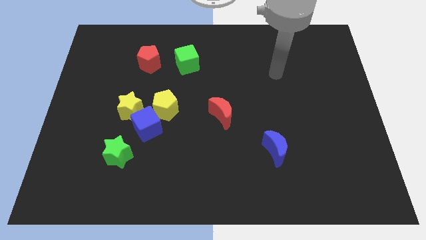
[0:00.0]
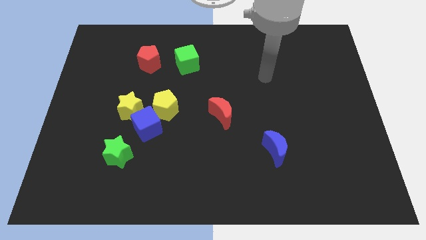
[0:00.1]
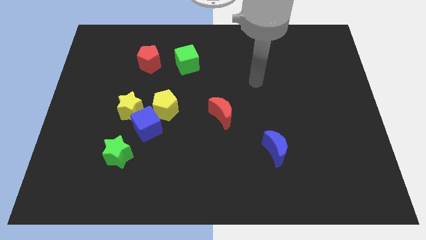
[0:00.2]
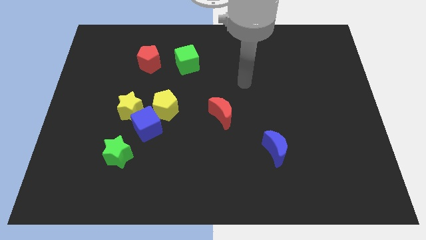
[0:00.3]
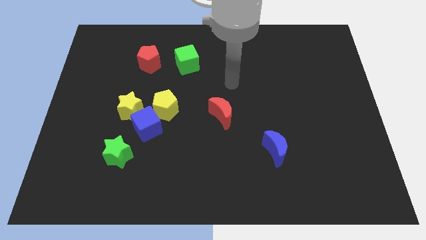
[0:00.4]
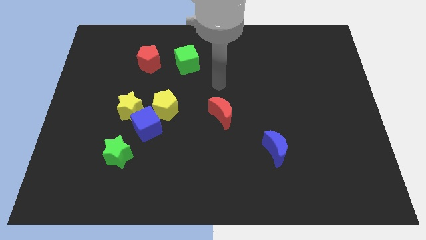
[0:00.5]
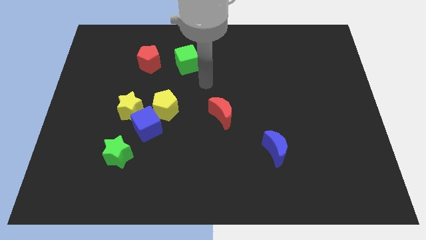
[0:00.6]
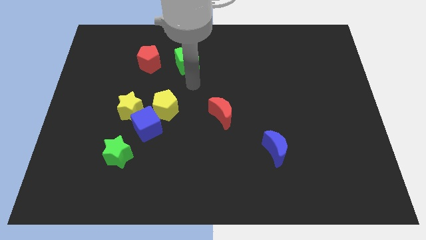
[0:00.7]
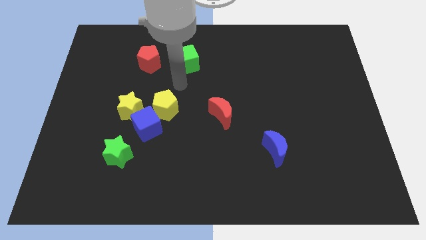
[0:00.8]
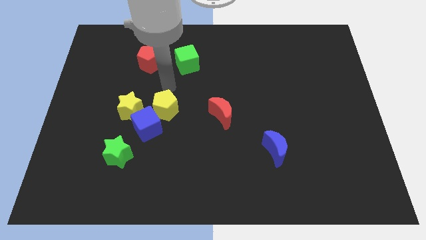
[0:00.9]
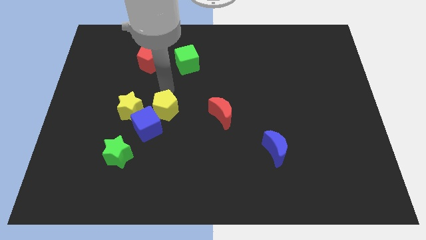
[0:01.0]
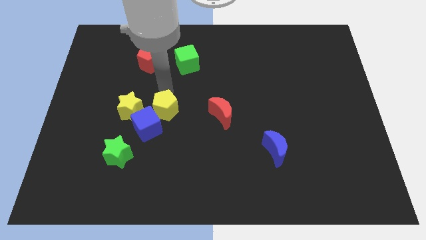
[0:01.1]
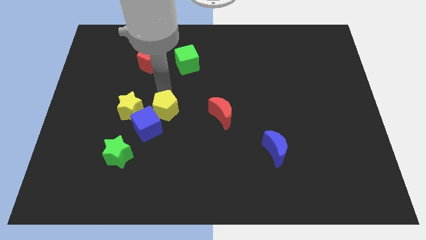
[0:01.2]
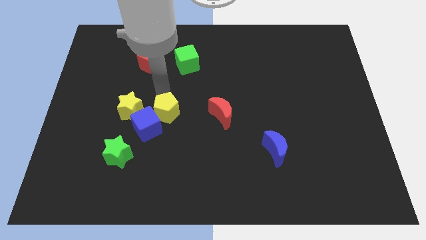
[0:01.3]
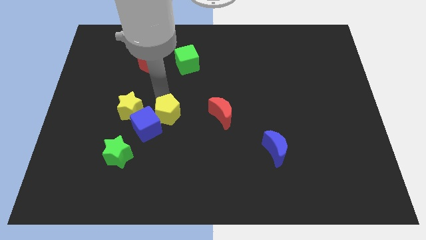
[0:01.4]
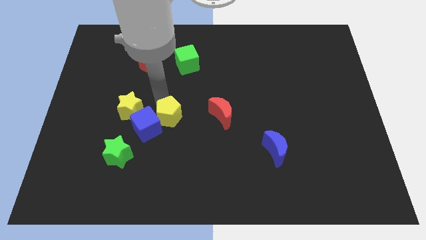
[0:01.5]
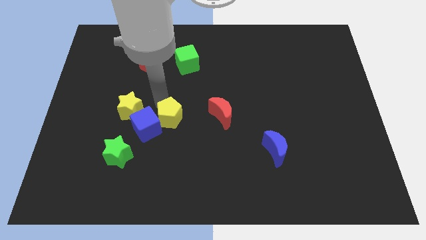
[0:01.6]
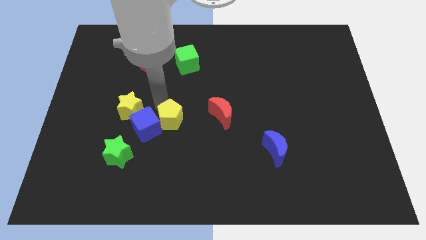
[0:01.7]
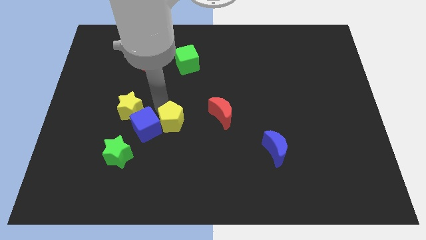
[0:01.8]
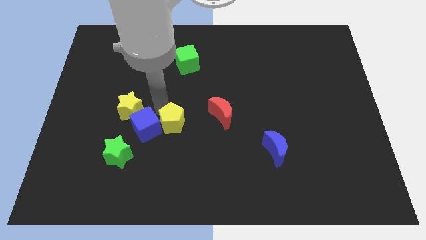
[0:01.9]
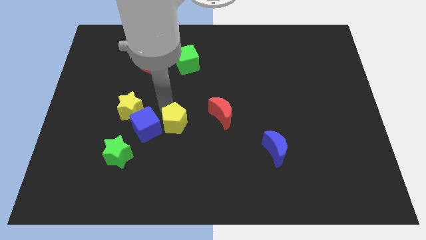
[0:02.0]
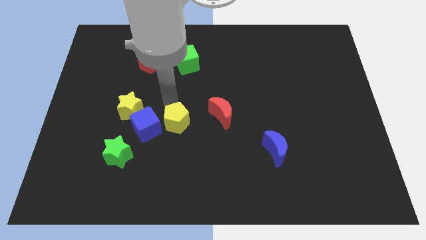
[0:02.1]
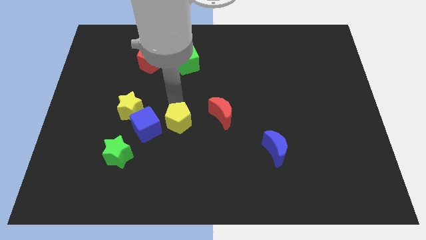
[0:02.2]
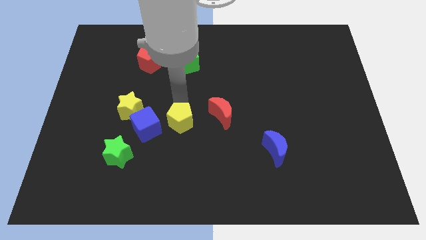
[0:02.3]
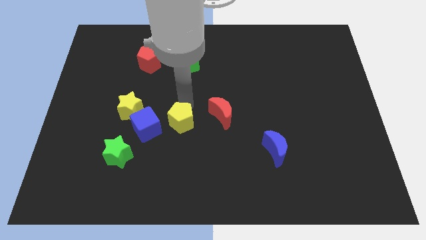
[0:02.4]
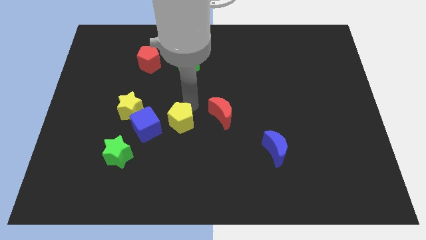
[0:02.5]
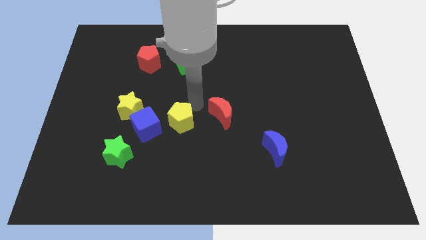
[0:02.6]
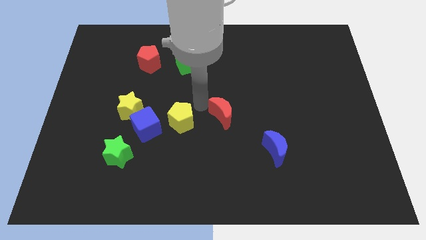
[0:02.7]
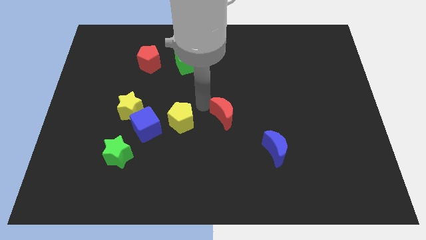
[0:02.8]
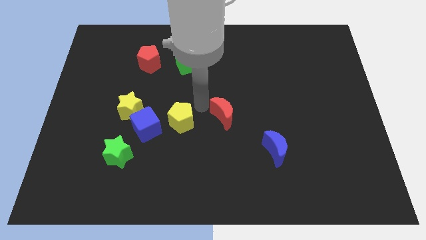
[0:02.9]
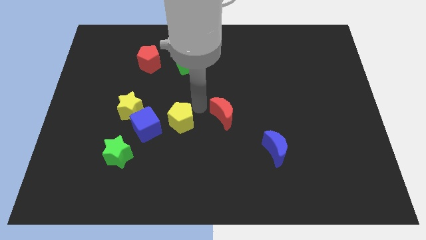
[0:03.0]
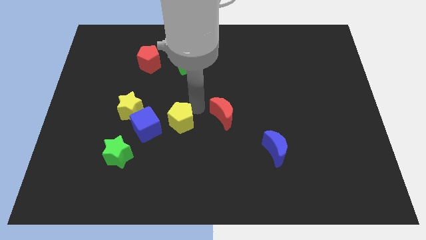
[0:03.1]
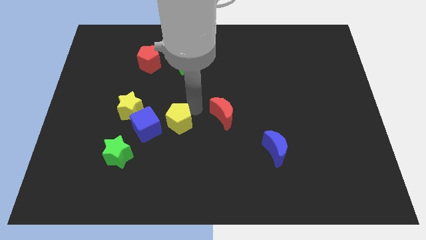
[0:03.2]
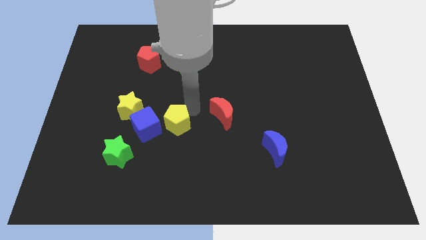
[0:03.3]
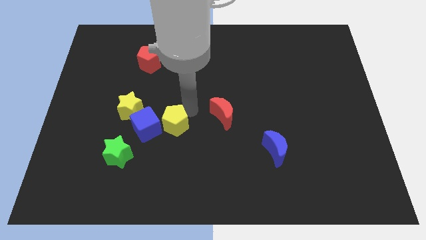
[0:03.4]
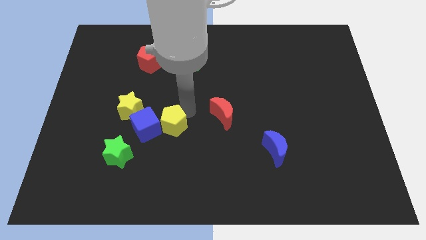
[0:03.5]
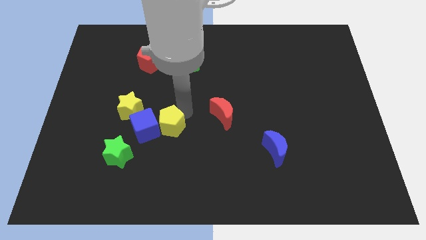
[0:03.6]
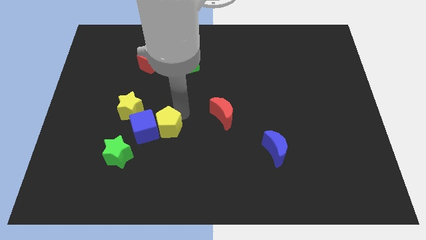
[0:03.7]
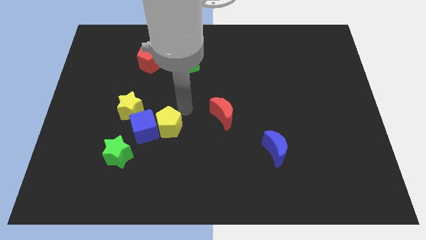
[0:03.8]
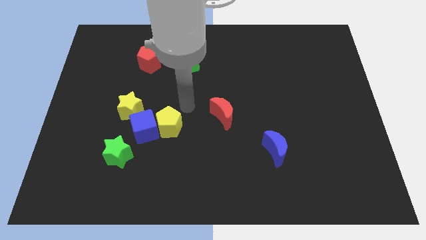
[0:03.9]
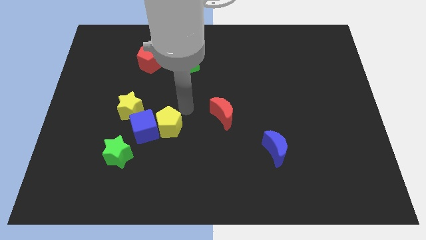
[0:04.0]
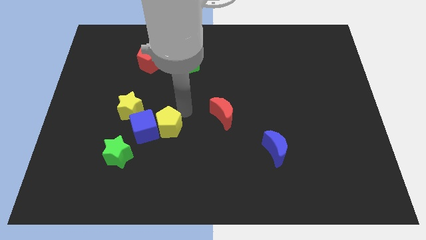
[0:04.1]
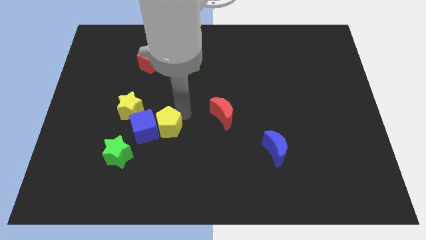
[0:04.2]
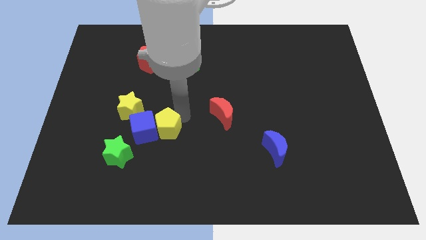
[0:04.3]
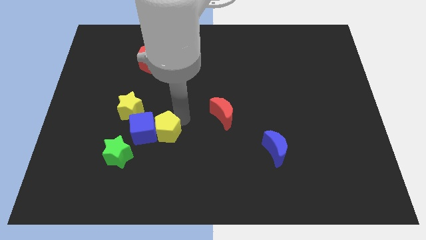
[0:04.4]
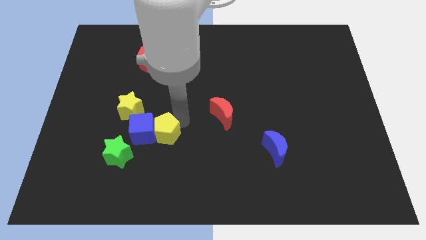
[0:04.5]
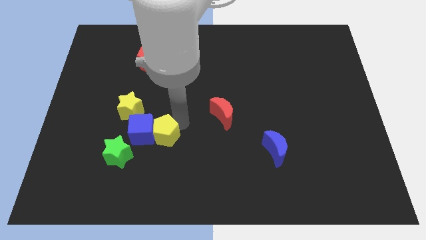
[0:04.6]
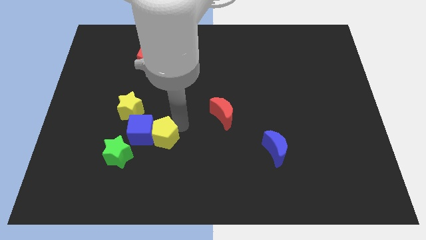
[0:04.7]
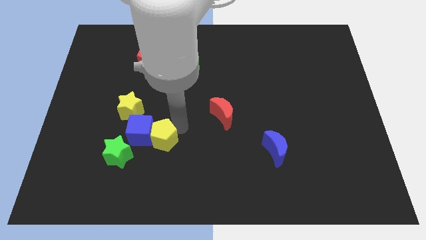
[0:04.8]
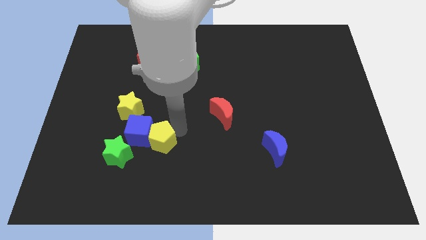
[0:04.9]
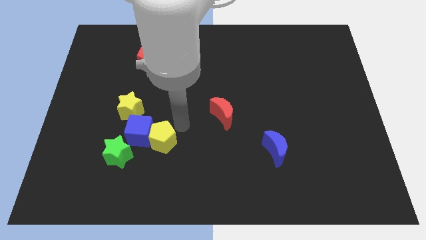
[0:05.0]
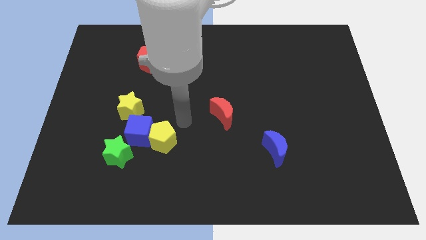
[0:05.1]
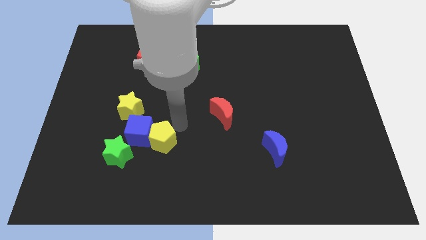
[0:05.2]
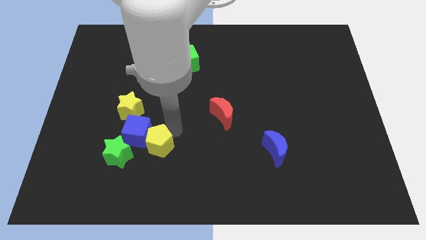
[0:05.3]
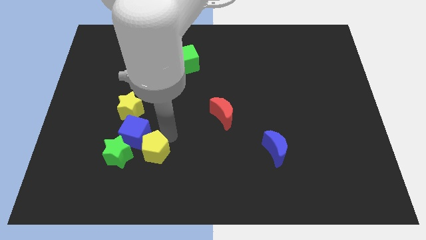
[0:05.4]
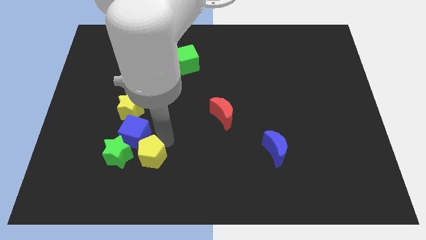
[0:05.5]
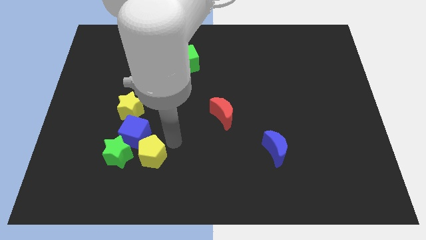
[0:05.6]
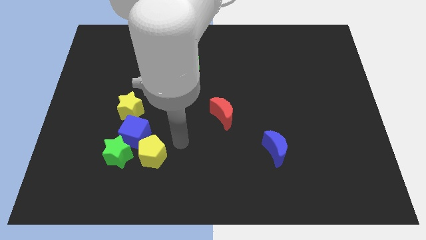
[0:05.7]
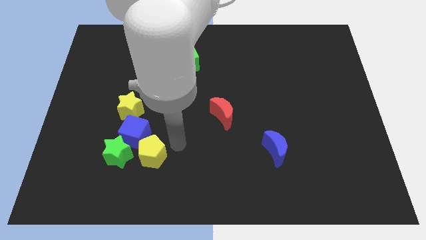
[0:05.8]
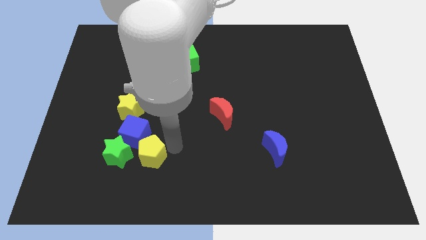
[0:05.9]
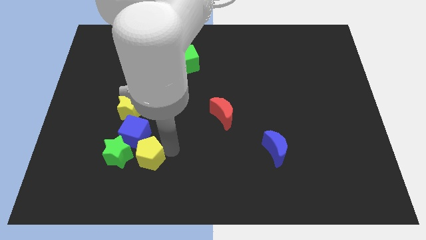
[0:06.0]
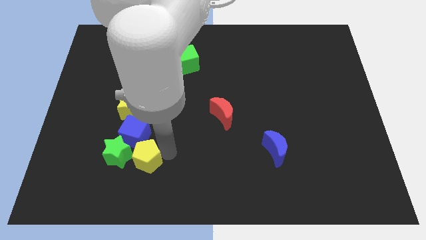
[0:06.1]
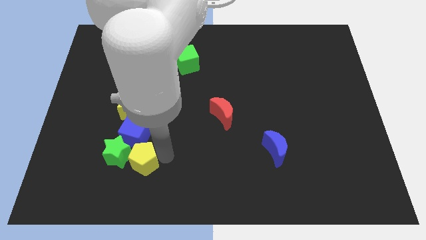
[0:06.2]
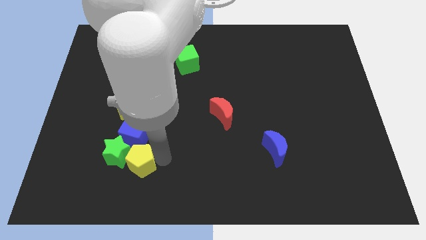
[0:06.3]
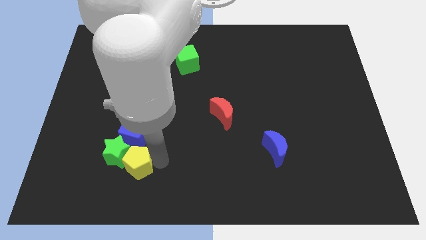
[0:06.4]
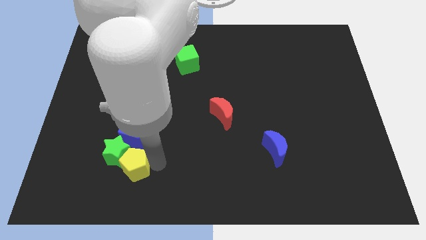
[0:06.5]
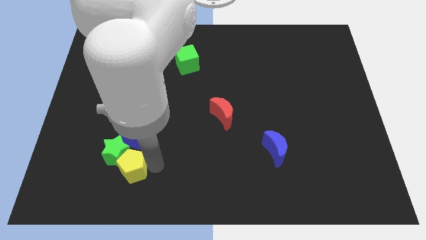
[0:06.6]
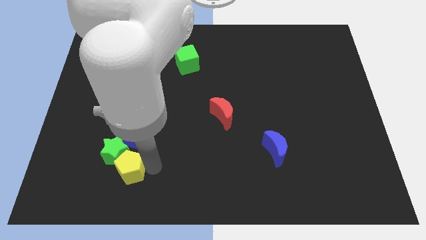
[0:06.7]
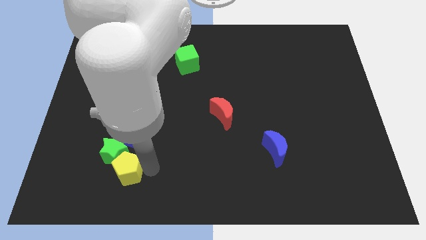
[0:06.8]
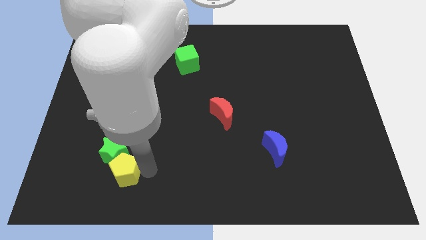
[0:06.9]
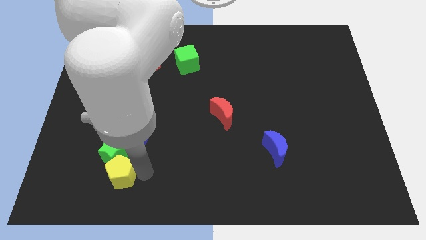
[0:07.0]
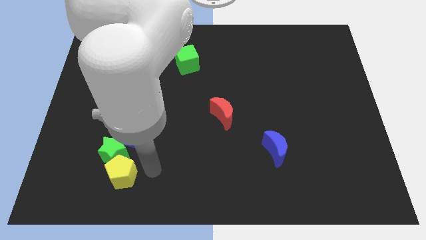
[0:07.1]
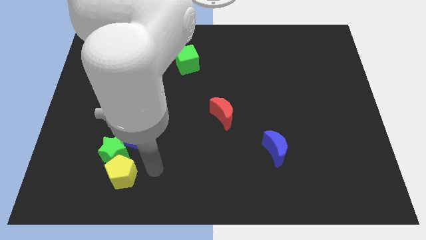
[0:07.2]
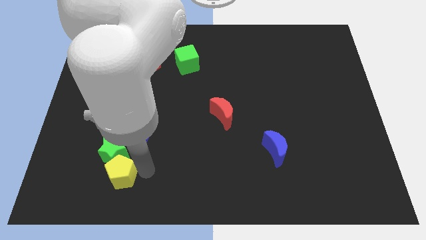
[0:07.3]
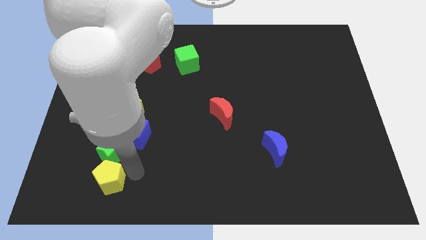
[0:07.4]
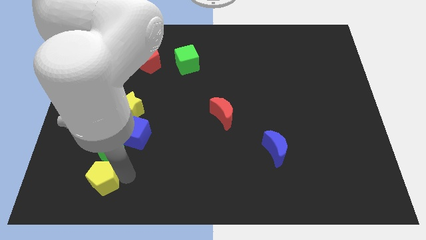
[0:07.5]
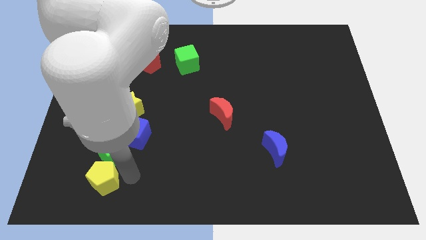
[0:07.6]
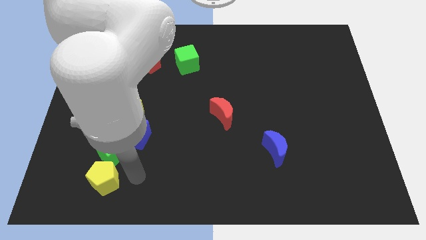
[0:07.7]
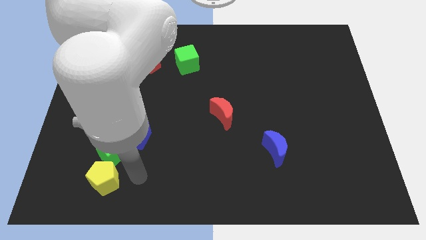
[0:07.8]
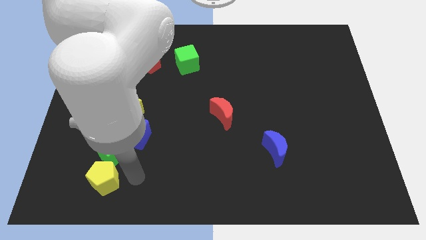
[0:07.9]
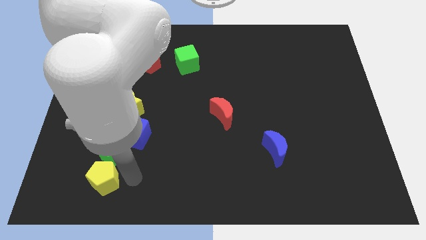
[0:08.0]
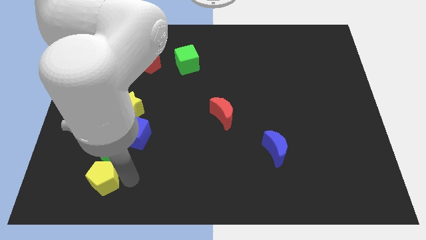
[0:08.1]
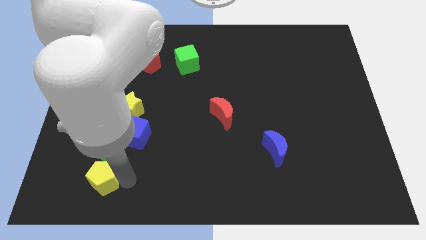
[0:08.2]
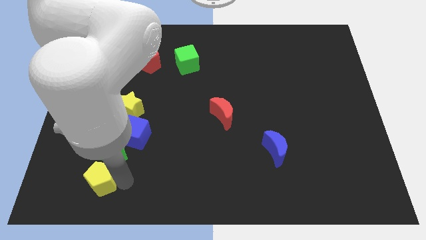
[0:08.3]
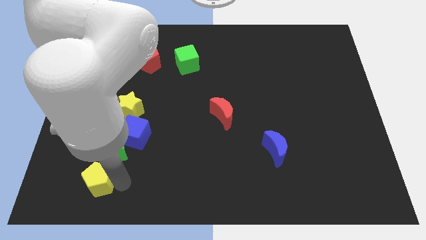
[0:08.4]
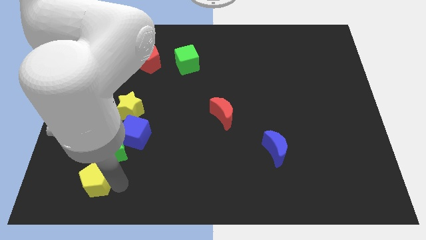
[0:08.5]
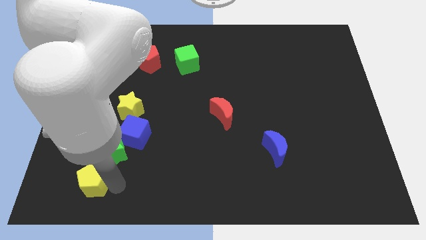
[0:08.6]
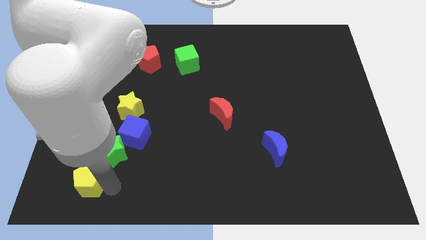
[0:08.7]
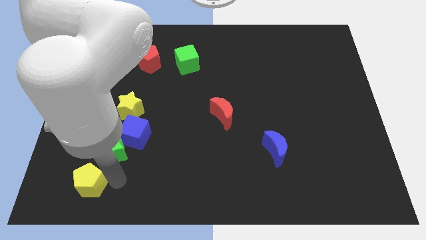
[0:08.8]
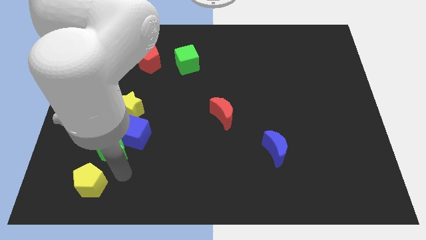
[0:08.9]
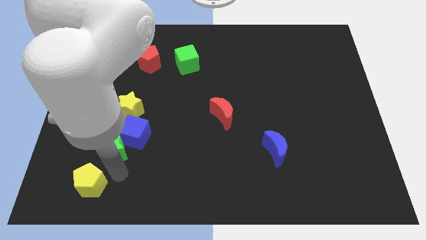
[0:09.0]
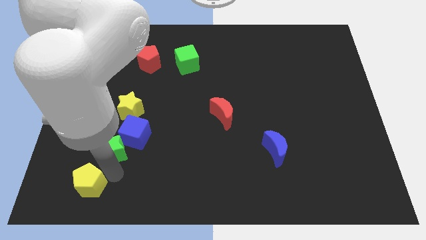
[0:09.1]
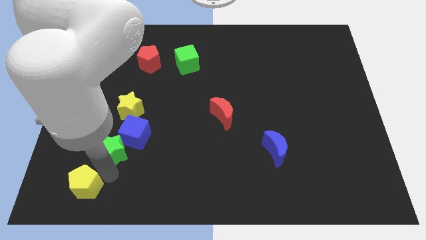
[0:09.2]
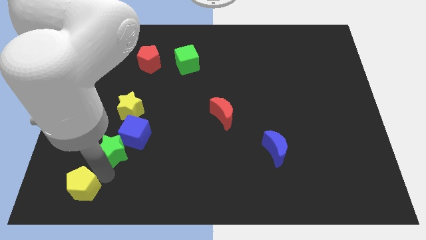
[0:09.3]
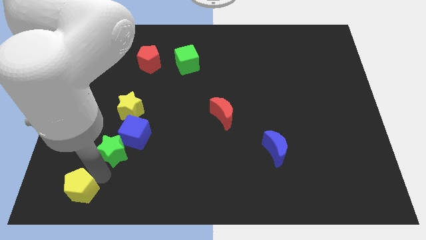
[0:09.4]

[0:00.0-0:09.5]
push the yellow pentagon to the bottom left of the board
